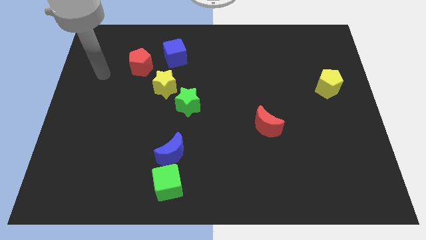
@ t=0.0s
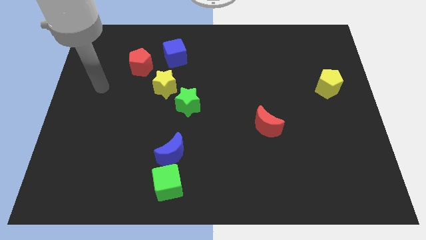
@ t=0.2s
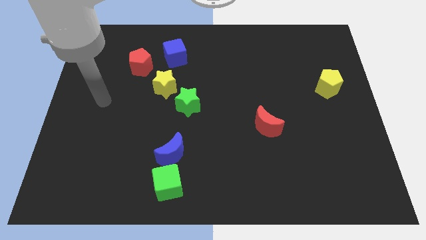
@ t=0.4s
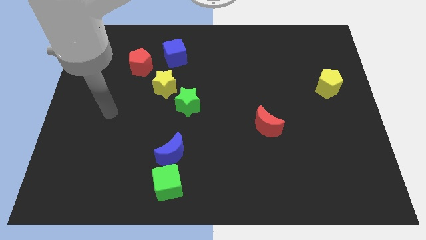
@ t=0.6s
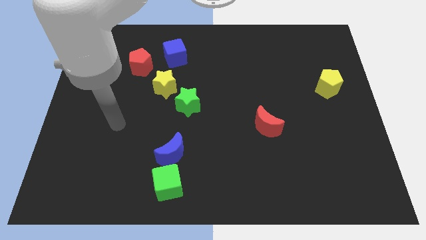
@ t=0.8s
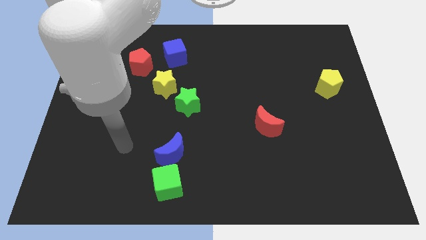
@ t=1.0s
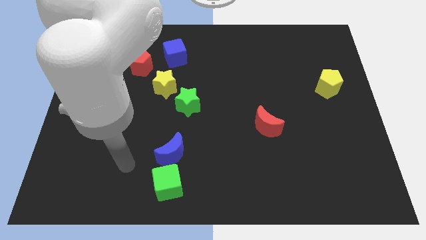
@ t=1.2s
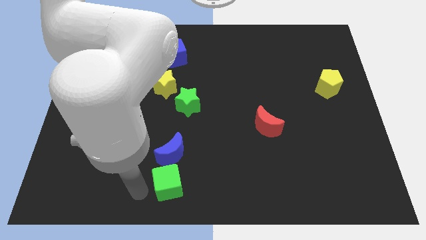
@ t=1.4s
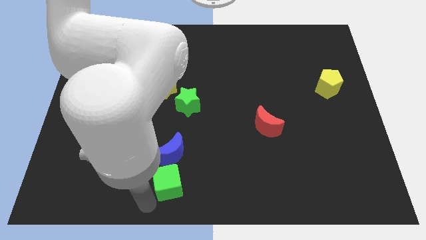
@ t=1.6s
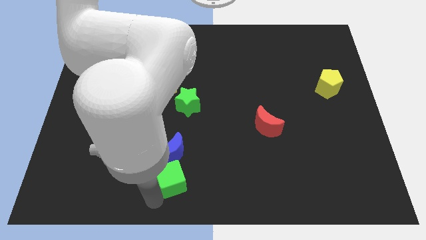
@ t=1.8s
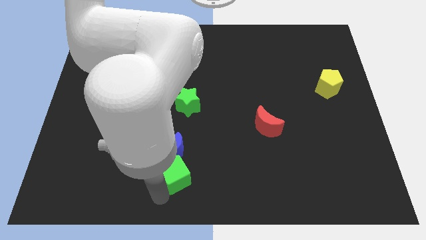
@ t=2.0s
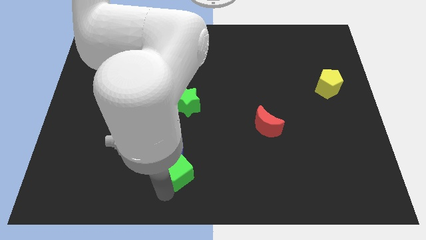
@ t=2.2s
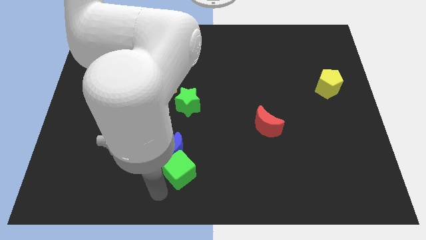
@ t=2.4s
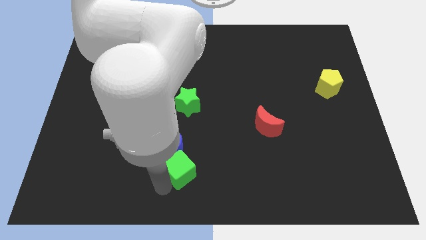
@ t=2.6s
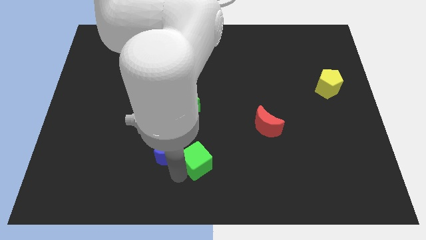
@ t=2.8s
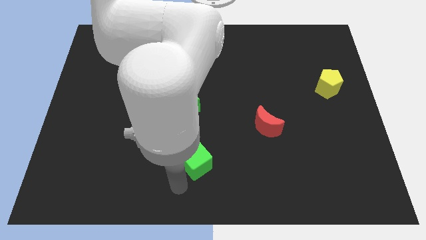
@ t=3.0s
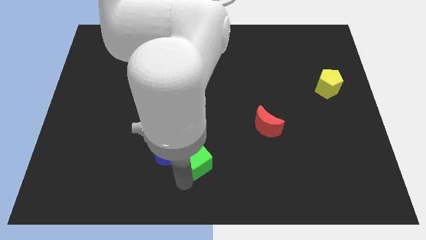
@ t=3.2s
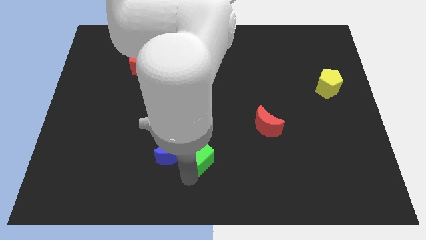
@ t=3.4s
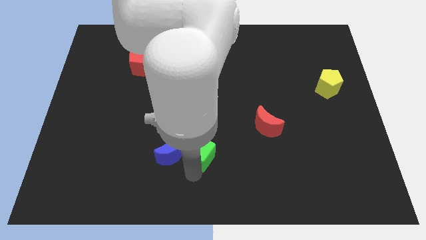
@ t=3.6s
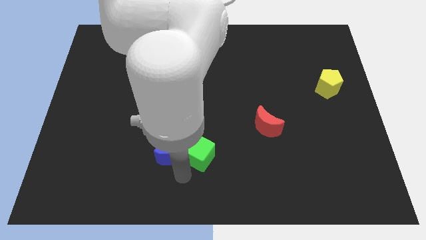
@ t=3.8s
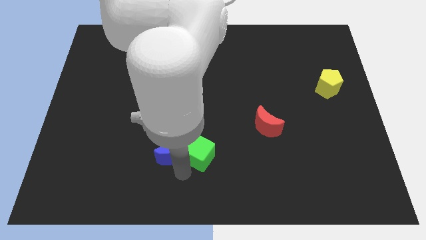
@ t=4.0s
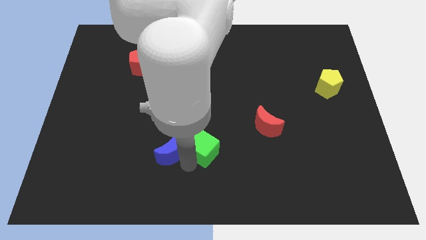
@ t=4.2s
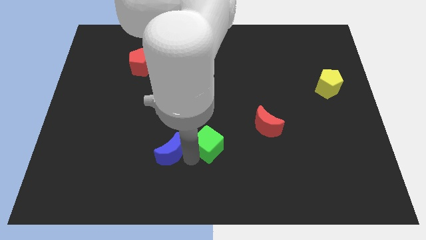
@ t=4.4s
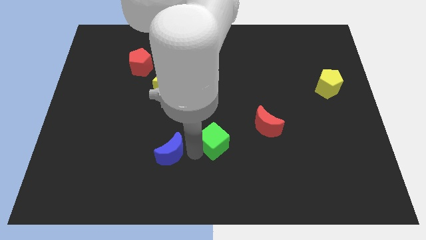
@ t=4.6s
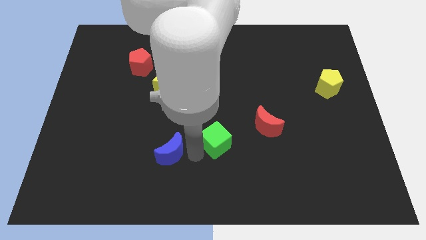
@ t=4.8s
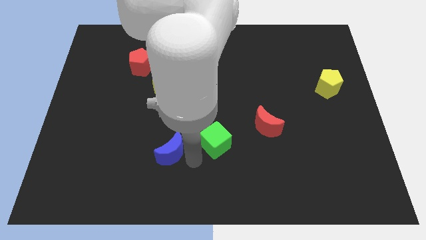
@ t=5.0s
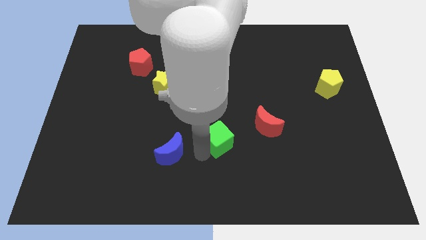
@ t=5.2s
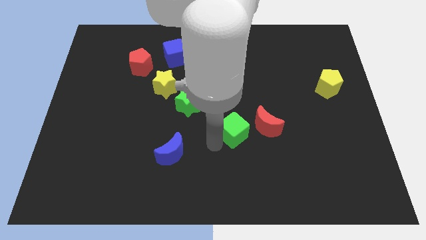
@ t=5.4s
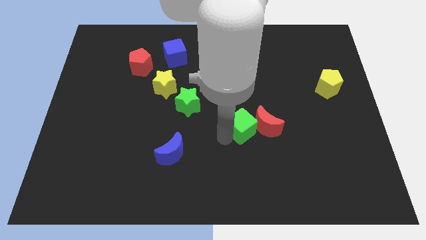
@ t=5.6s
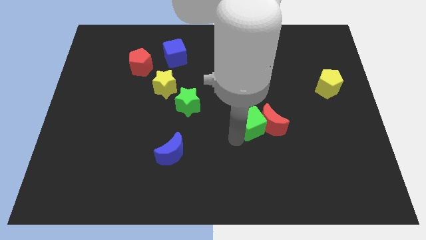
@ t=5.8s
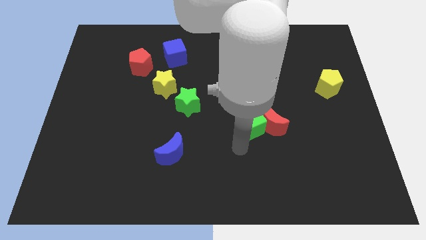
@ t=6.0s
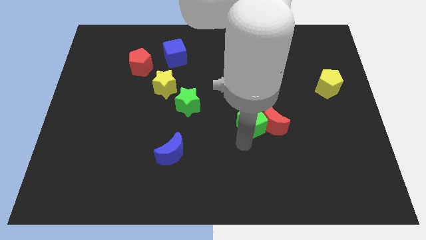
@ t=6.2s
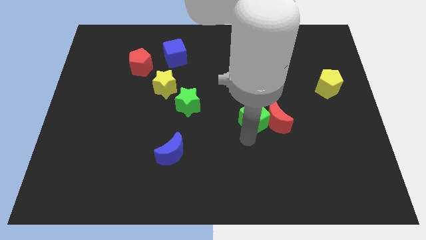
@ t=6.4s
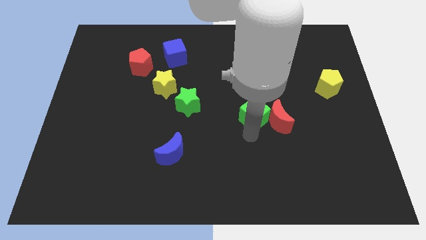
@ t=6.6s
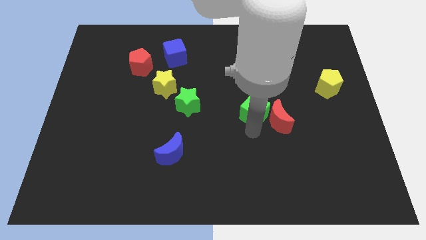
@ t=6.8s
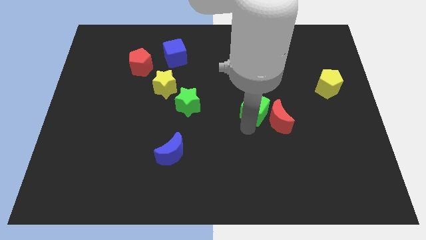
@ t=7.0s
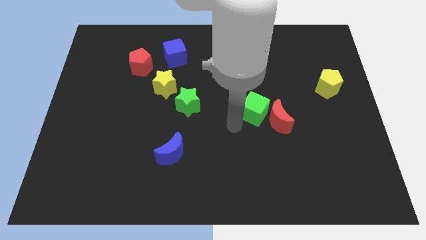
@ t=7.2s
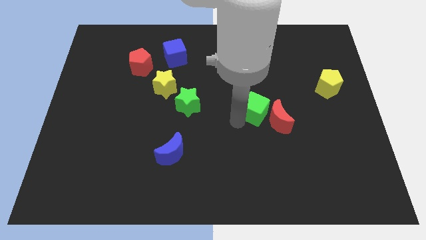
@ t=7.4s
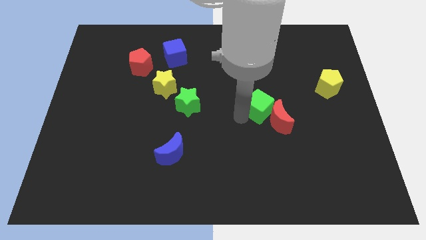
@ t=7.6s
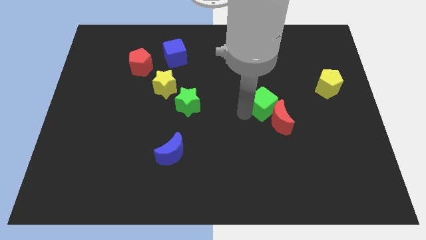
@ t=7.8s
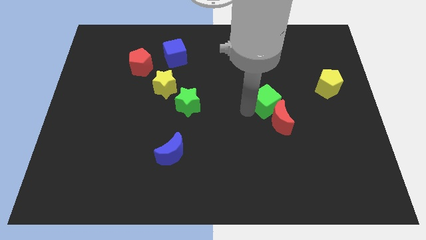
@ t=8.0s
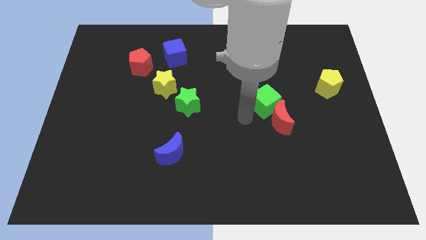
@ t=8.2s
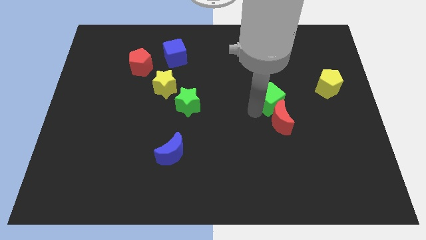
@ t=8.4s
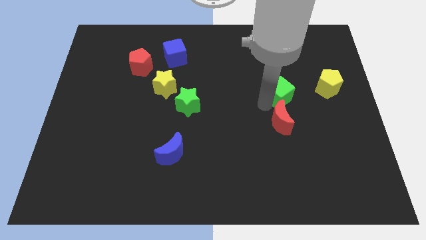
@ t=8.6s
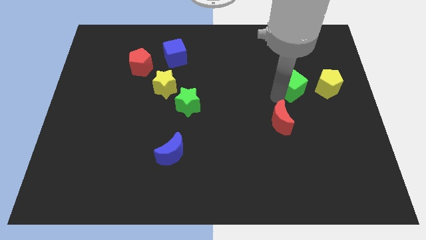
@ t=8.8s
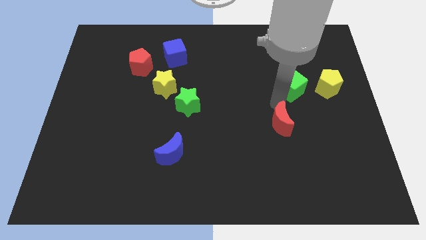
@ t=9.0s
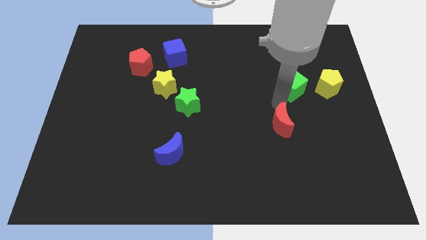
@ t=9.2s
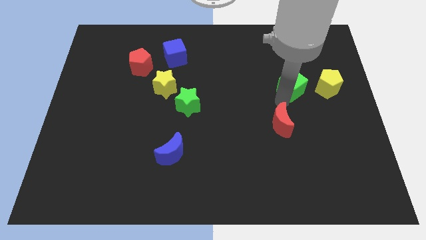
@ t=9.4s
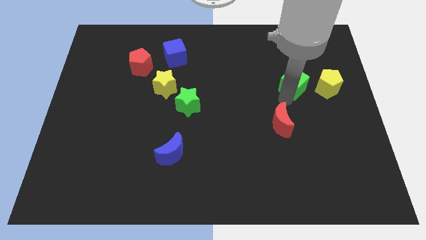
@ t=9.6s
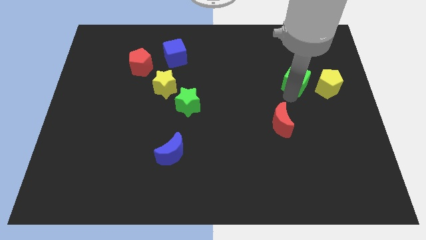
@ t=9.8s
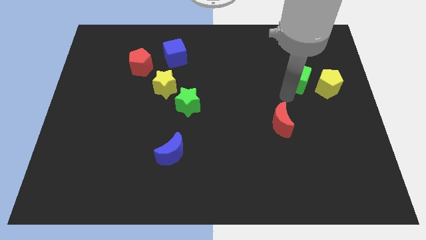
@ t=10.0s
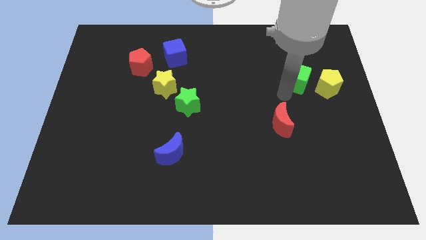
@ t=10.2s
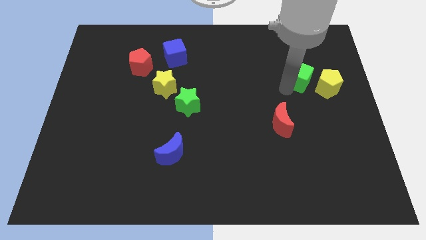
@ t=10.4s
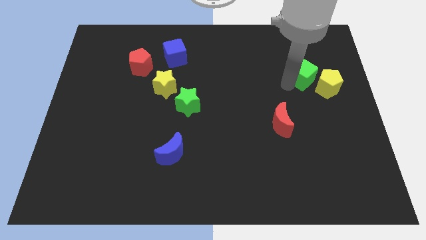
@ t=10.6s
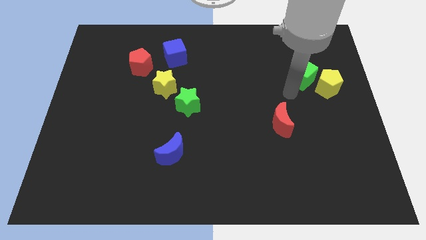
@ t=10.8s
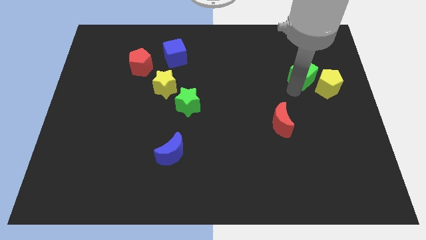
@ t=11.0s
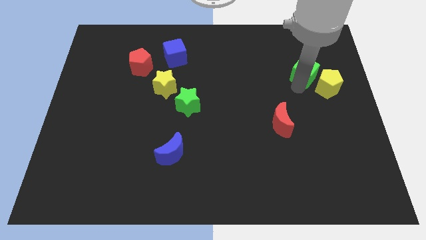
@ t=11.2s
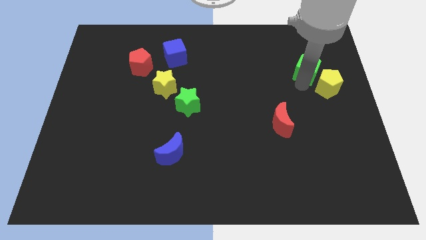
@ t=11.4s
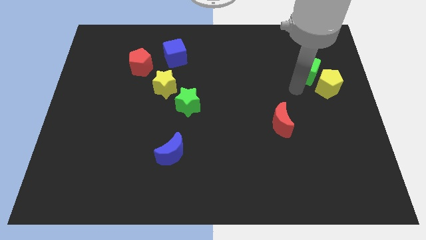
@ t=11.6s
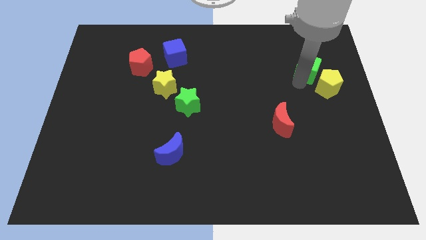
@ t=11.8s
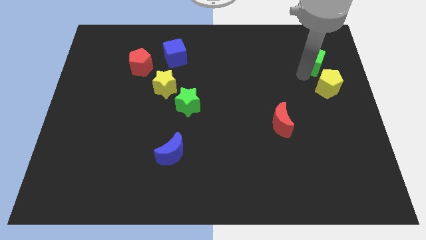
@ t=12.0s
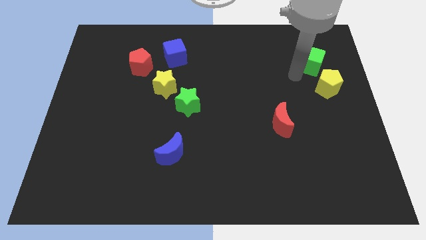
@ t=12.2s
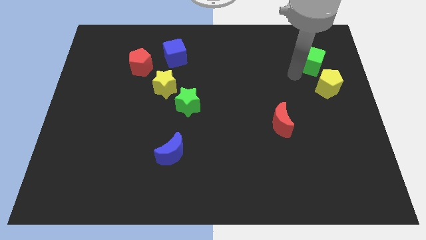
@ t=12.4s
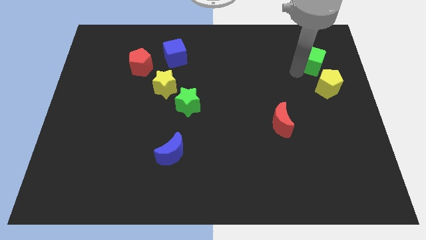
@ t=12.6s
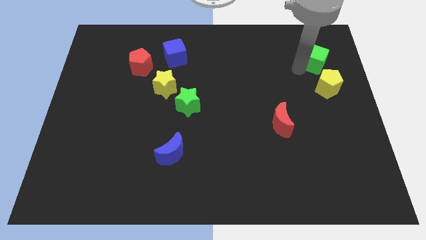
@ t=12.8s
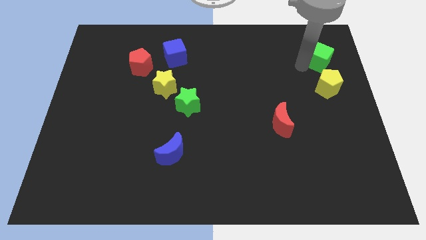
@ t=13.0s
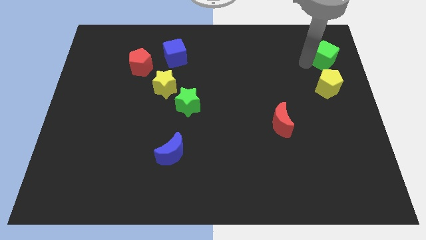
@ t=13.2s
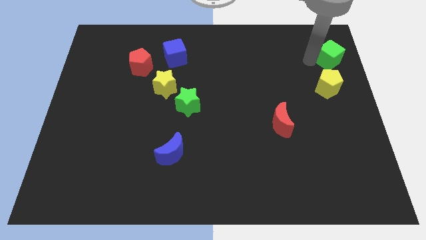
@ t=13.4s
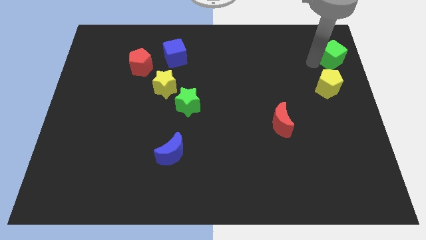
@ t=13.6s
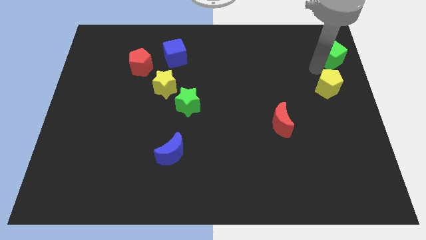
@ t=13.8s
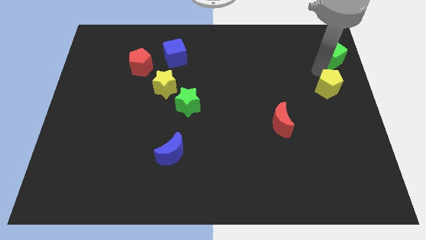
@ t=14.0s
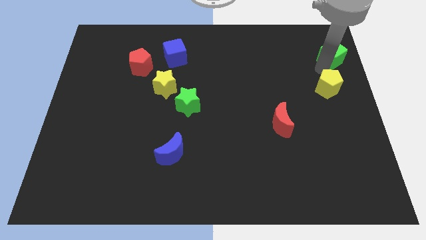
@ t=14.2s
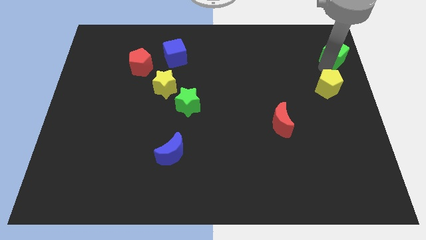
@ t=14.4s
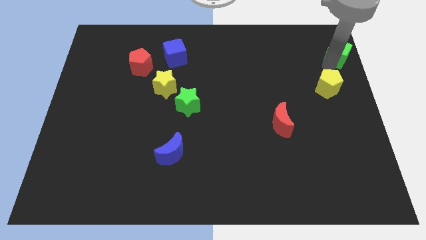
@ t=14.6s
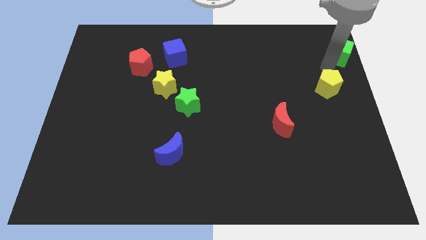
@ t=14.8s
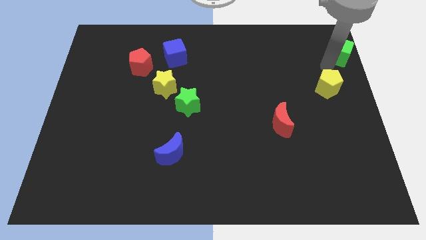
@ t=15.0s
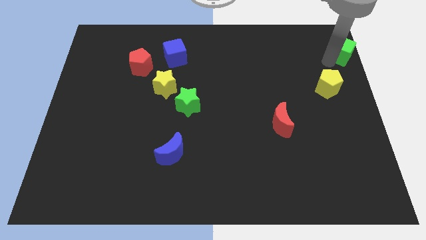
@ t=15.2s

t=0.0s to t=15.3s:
push the green cube to the upper right corner
